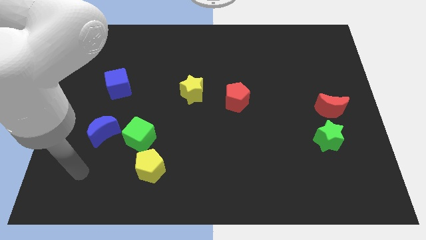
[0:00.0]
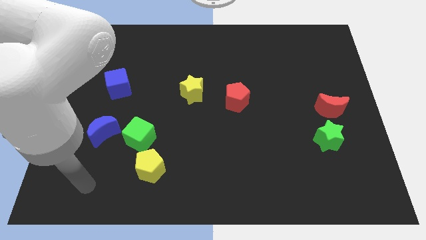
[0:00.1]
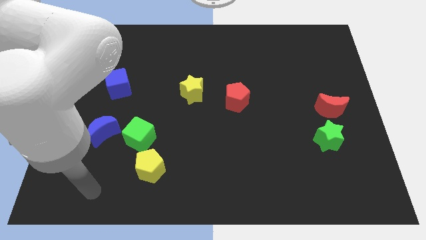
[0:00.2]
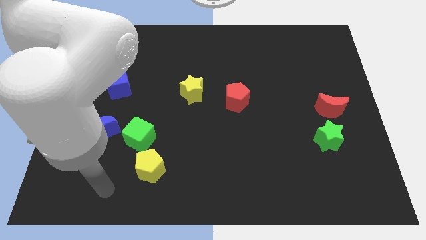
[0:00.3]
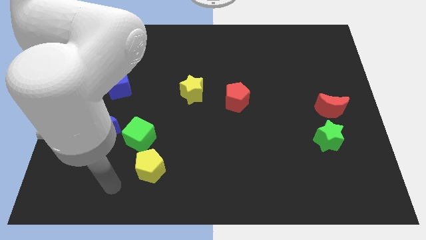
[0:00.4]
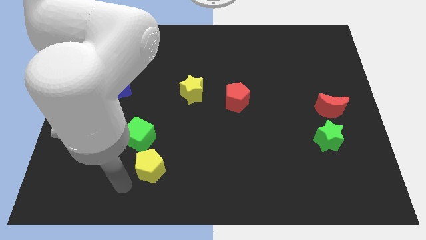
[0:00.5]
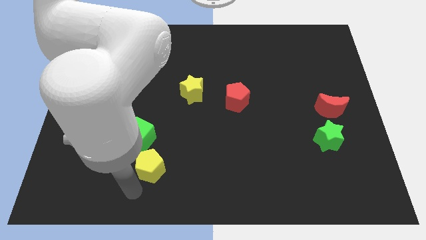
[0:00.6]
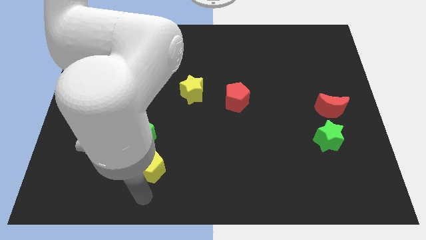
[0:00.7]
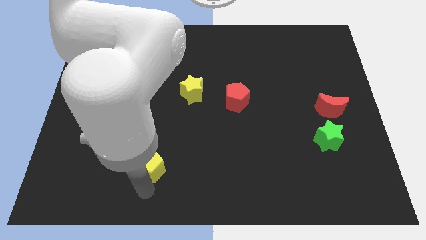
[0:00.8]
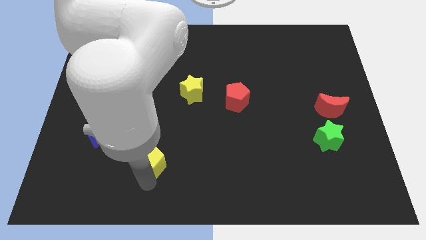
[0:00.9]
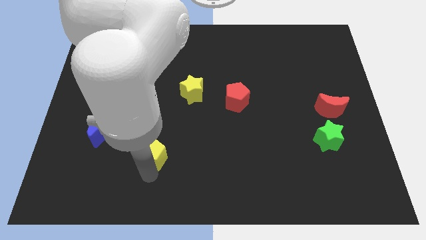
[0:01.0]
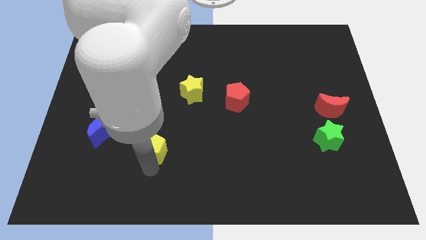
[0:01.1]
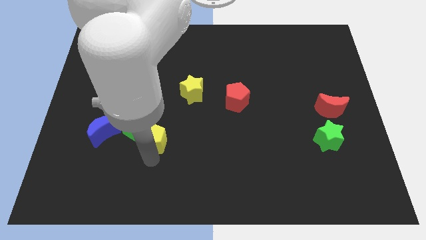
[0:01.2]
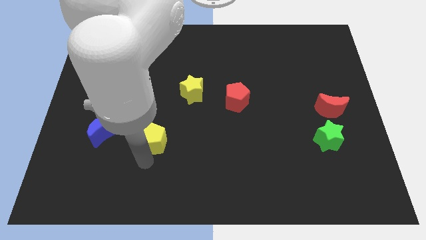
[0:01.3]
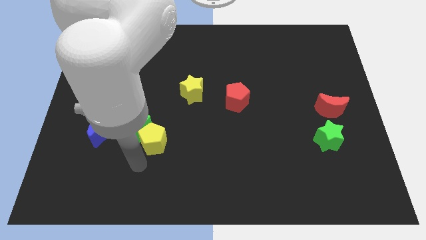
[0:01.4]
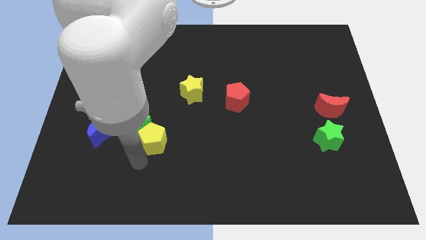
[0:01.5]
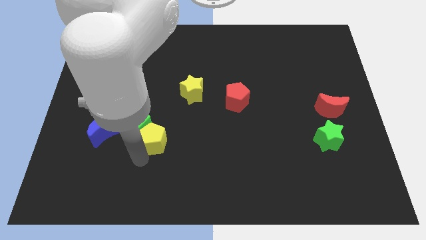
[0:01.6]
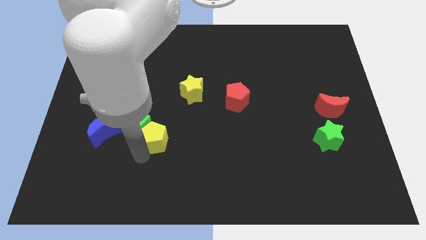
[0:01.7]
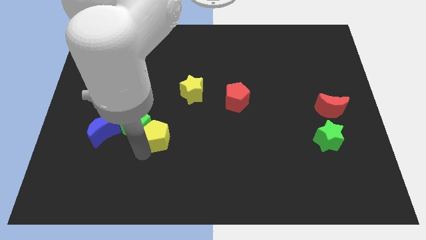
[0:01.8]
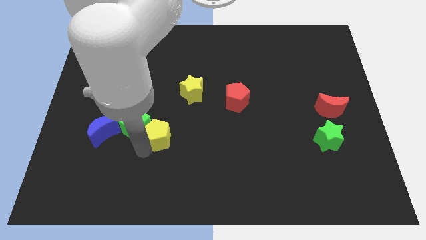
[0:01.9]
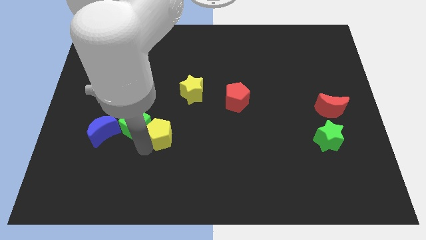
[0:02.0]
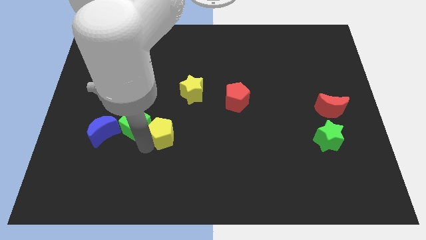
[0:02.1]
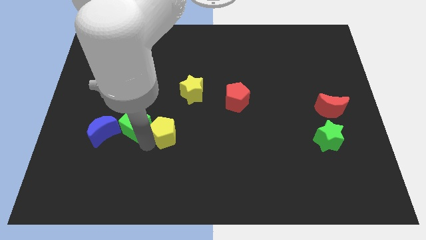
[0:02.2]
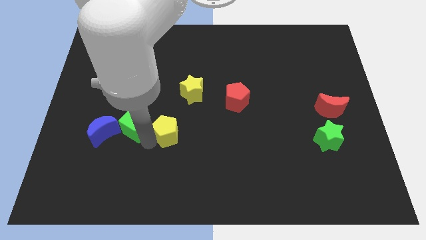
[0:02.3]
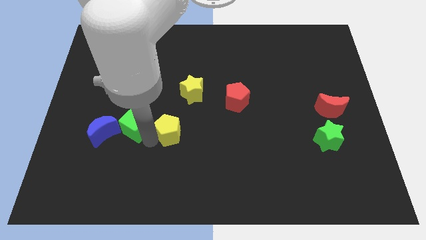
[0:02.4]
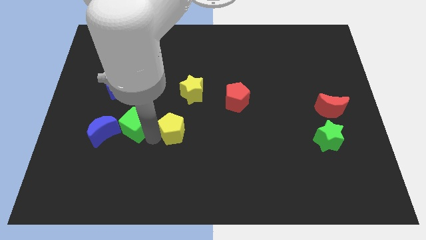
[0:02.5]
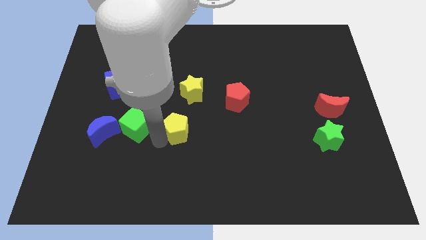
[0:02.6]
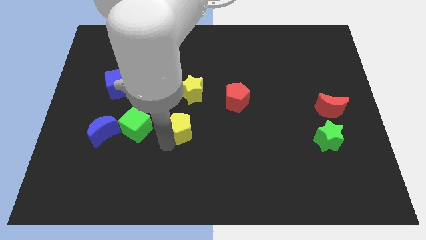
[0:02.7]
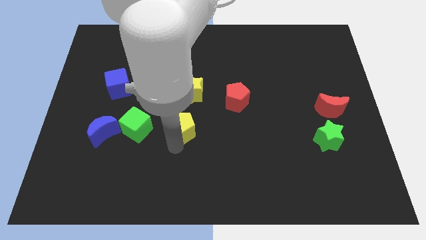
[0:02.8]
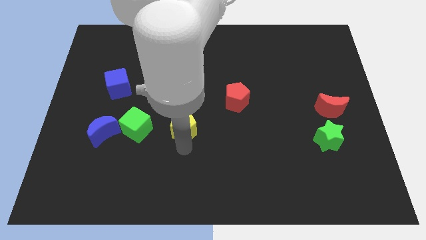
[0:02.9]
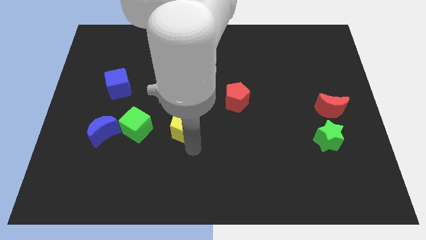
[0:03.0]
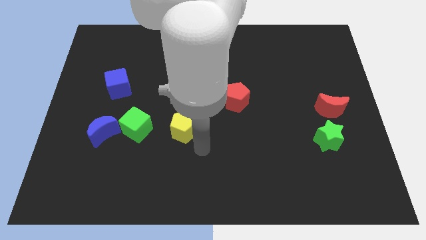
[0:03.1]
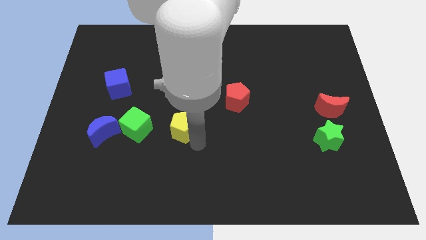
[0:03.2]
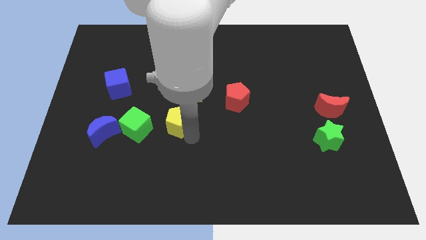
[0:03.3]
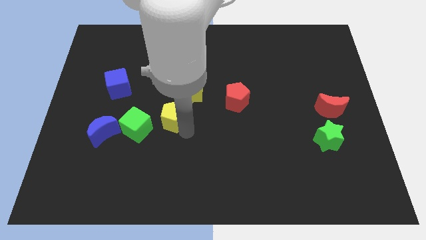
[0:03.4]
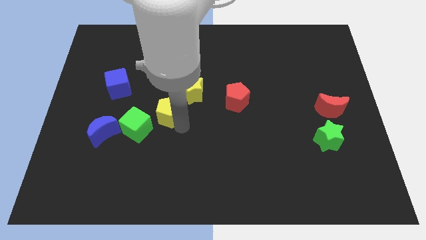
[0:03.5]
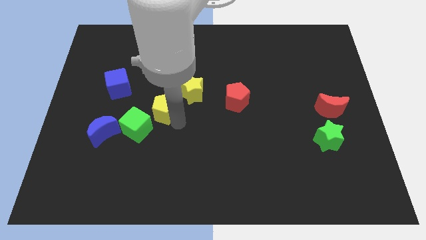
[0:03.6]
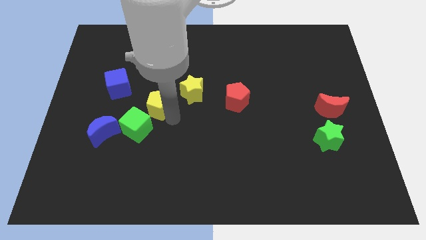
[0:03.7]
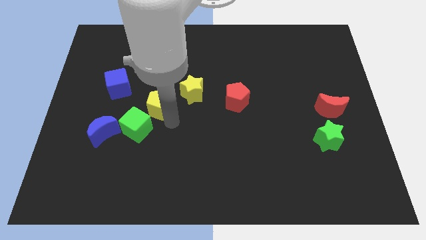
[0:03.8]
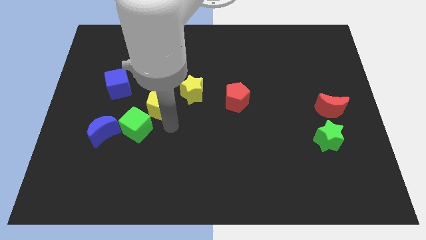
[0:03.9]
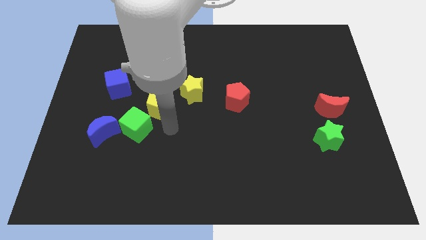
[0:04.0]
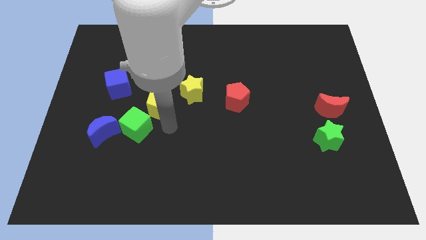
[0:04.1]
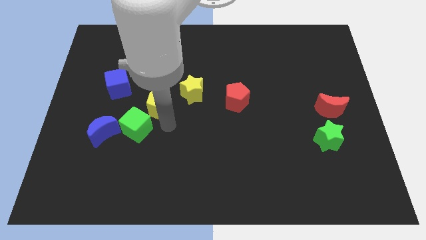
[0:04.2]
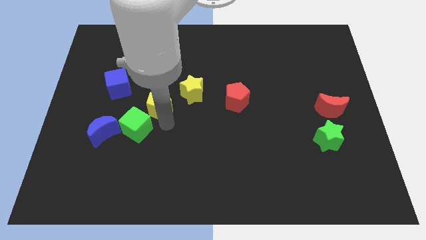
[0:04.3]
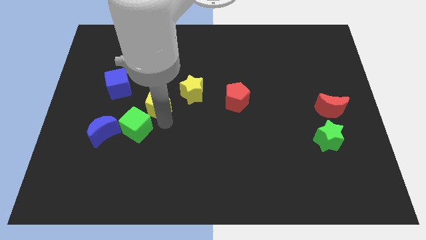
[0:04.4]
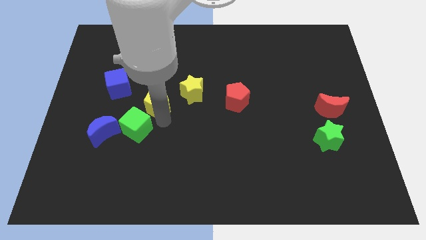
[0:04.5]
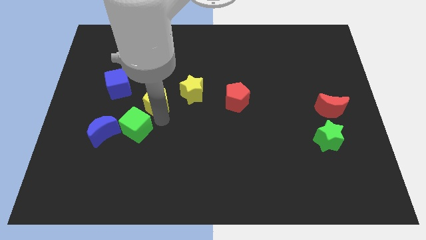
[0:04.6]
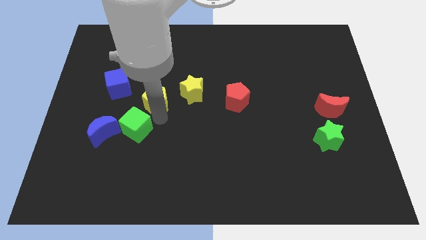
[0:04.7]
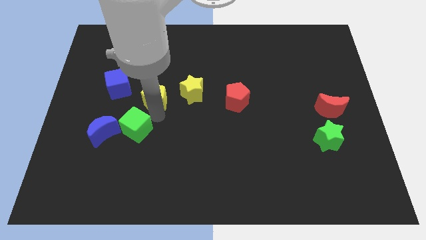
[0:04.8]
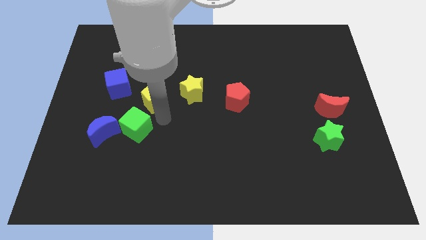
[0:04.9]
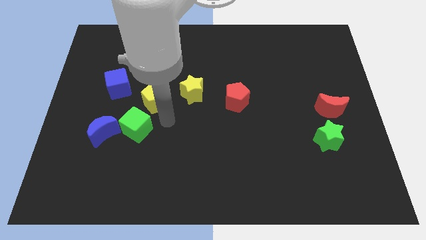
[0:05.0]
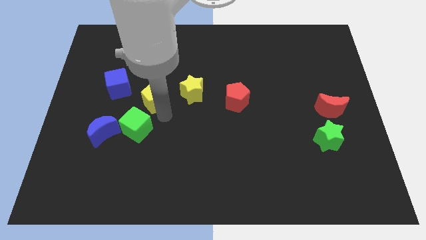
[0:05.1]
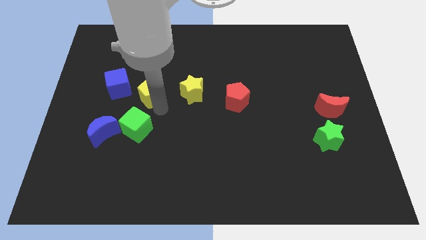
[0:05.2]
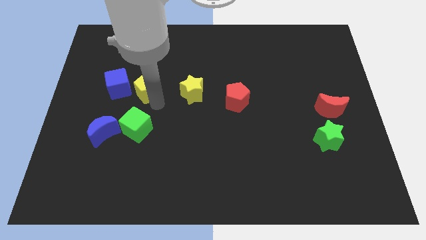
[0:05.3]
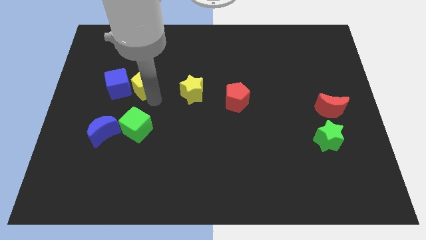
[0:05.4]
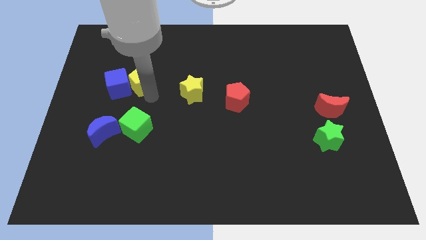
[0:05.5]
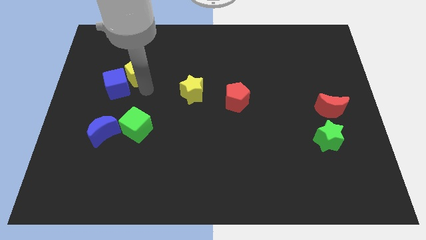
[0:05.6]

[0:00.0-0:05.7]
move the yellow pentagon above the blue cube

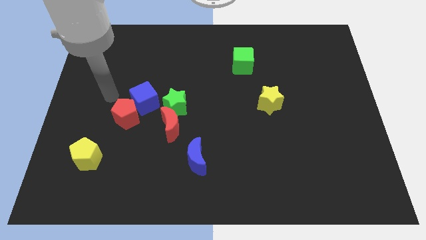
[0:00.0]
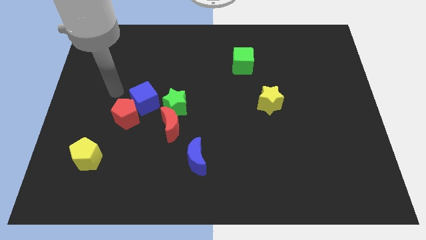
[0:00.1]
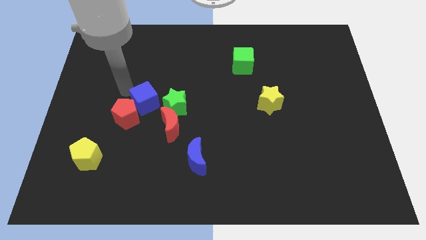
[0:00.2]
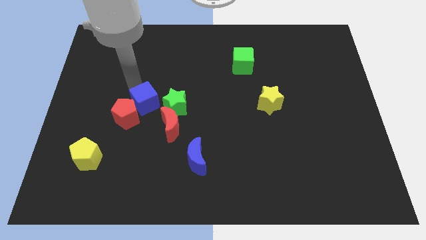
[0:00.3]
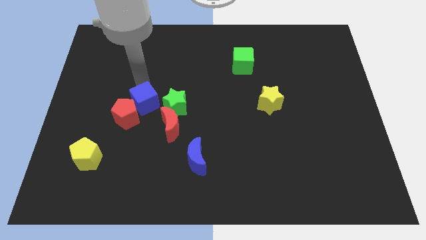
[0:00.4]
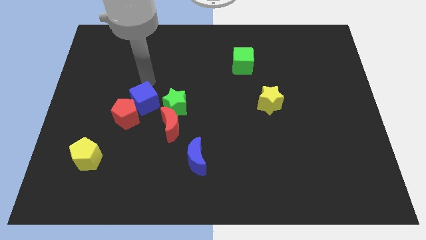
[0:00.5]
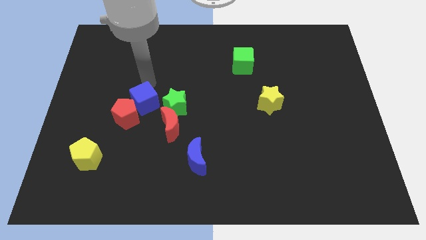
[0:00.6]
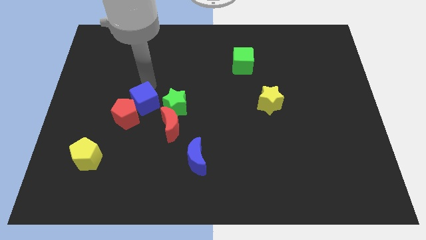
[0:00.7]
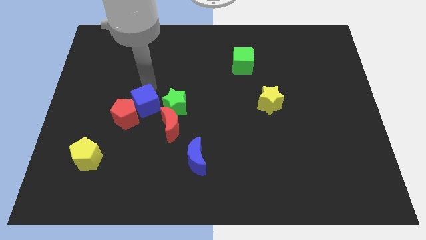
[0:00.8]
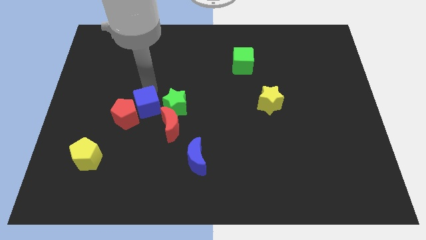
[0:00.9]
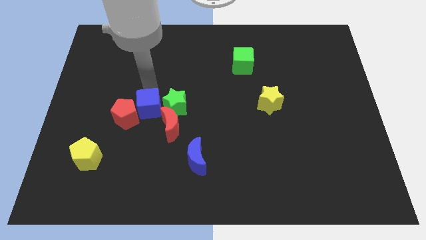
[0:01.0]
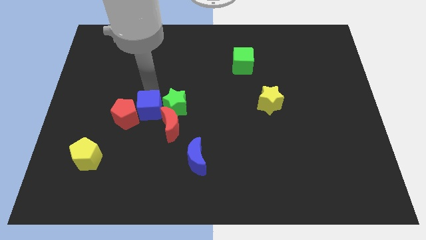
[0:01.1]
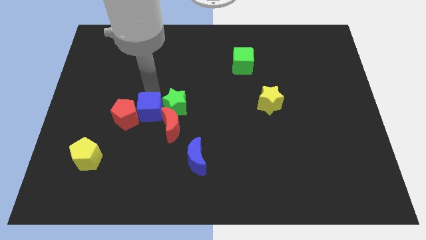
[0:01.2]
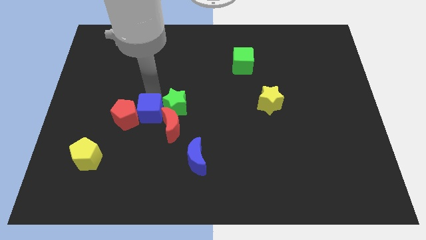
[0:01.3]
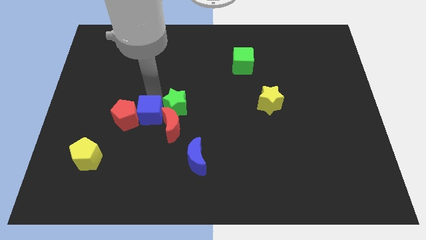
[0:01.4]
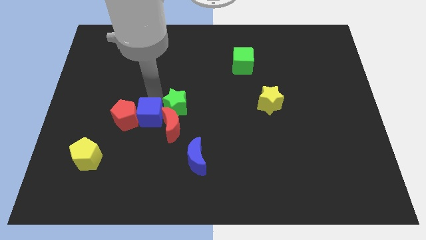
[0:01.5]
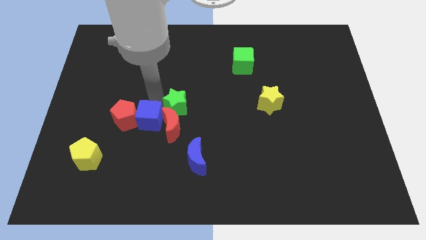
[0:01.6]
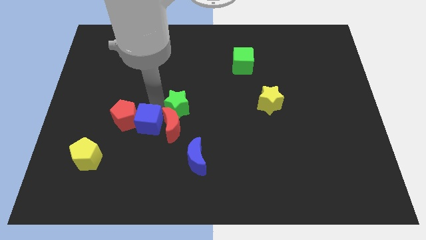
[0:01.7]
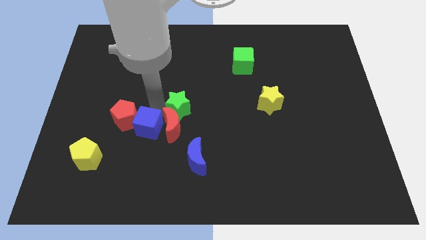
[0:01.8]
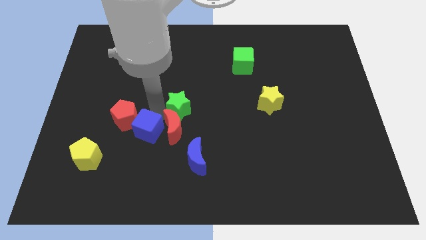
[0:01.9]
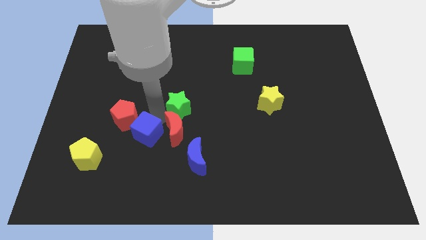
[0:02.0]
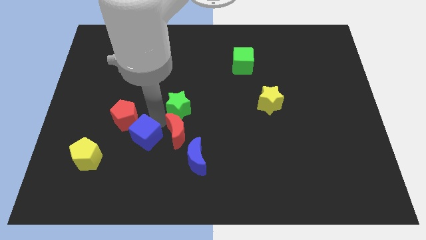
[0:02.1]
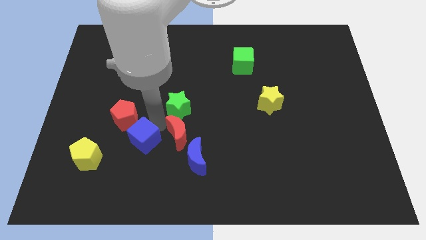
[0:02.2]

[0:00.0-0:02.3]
move the blue cube to the bottom side of the red pentagon
